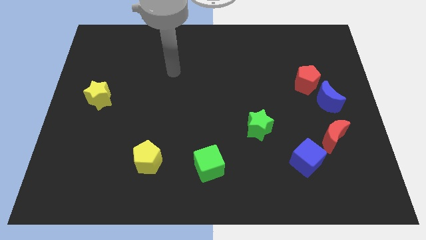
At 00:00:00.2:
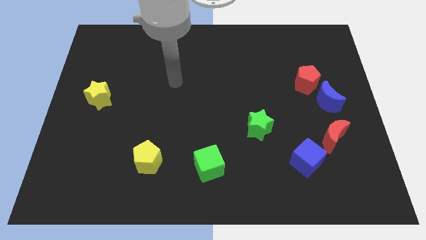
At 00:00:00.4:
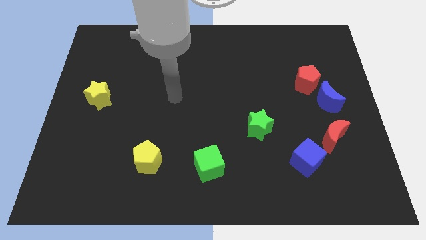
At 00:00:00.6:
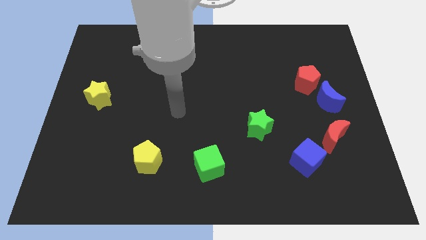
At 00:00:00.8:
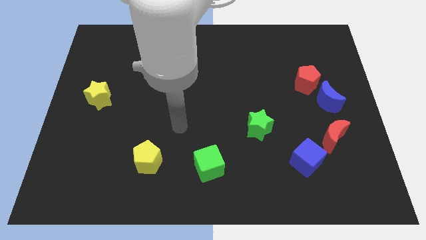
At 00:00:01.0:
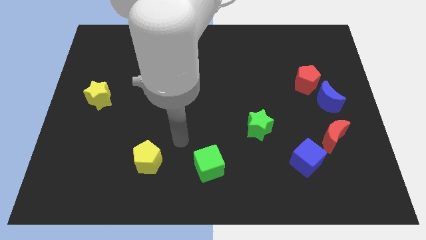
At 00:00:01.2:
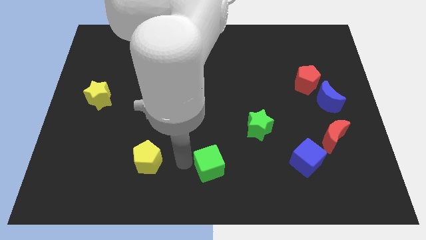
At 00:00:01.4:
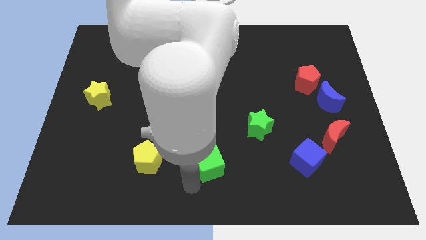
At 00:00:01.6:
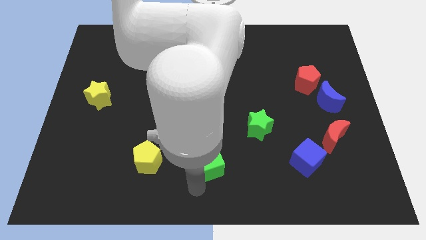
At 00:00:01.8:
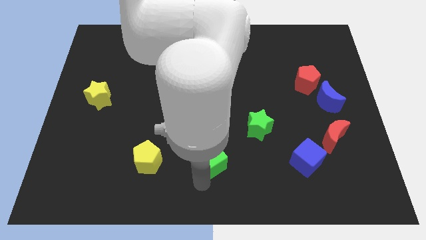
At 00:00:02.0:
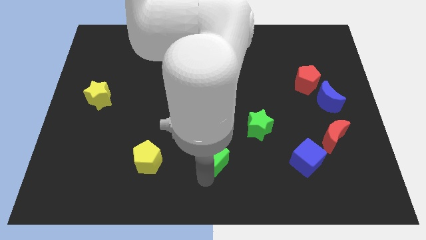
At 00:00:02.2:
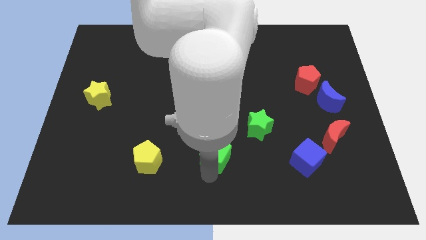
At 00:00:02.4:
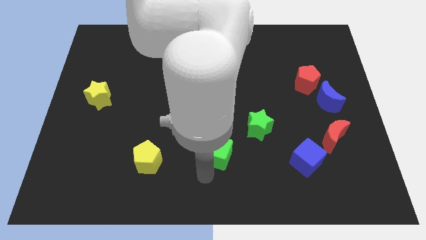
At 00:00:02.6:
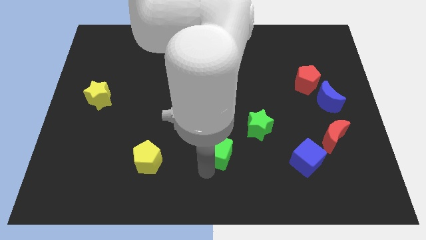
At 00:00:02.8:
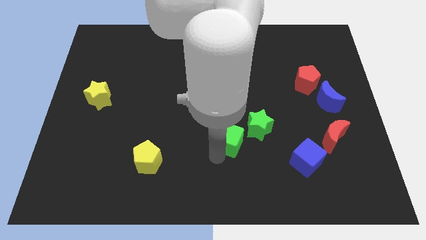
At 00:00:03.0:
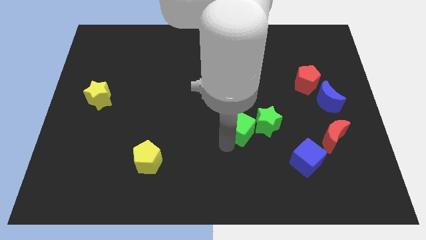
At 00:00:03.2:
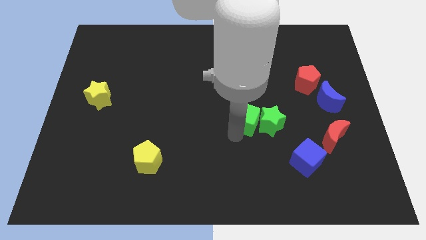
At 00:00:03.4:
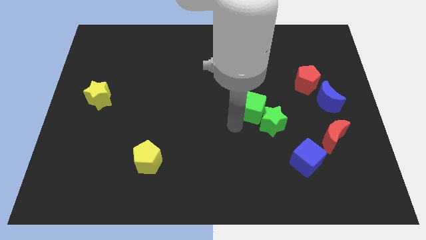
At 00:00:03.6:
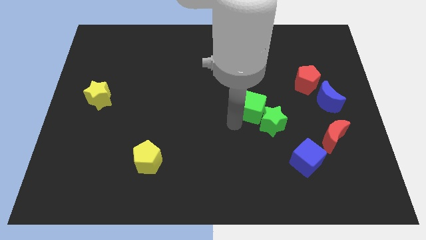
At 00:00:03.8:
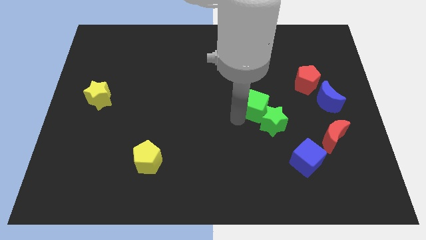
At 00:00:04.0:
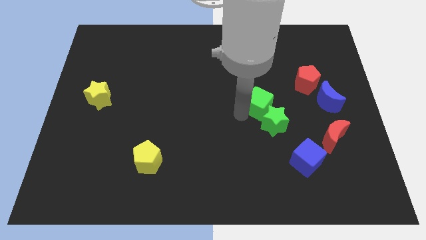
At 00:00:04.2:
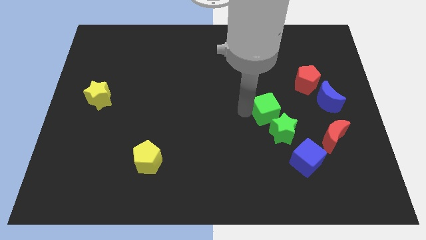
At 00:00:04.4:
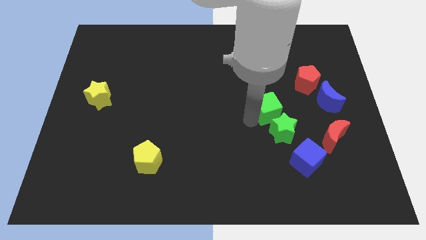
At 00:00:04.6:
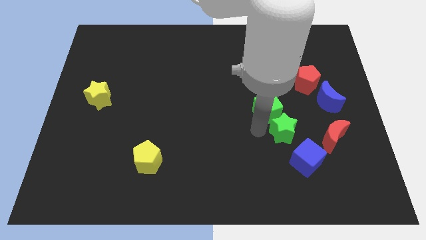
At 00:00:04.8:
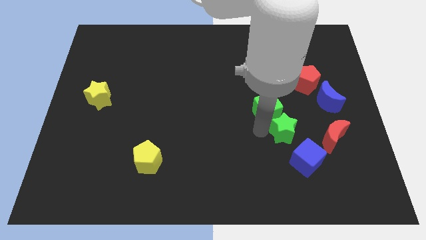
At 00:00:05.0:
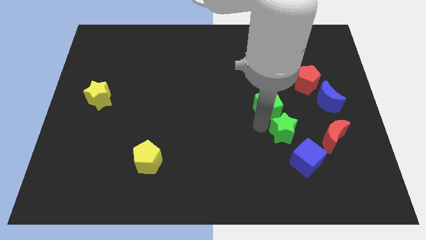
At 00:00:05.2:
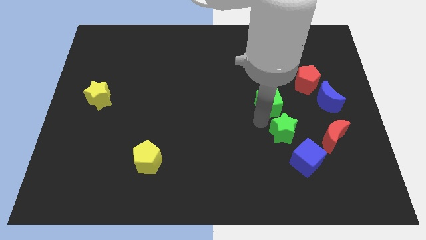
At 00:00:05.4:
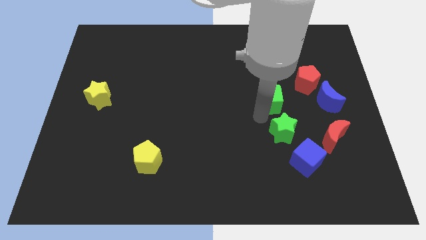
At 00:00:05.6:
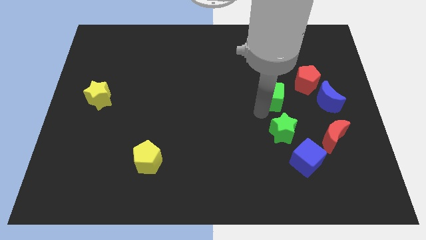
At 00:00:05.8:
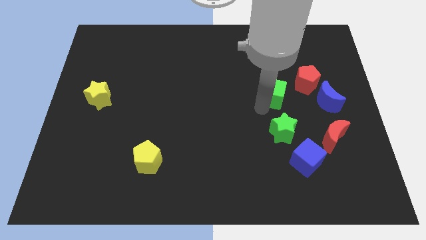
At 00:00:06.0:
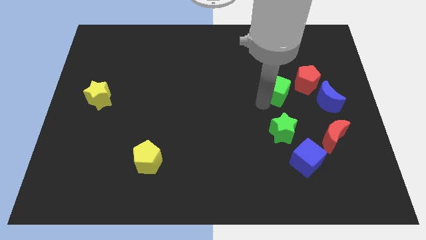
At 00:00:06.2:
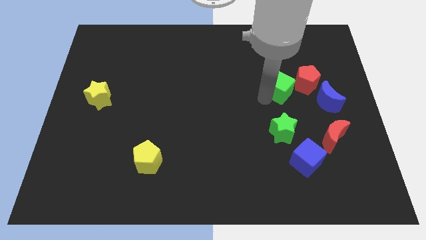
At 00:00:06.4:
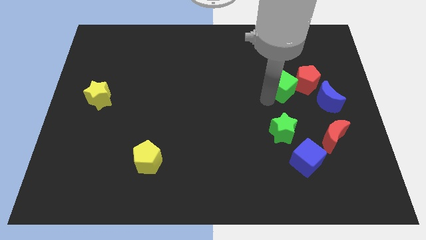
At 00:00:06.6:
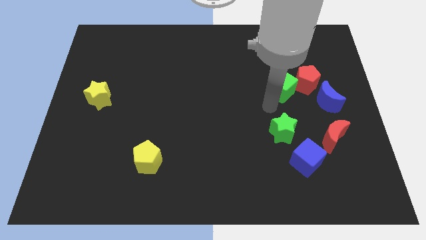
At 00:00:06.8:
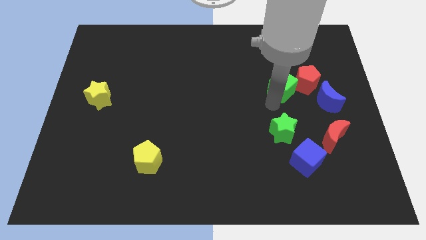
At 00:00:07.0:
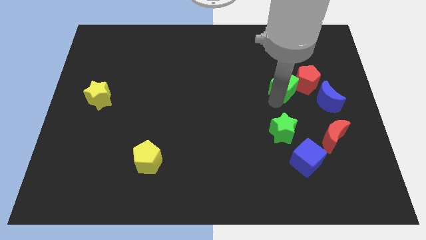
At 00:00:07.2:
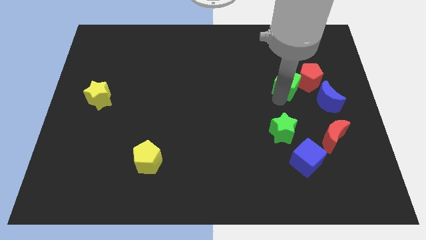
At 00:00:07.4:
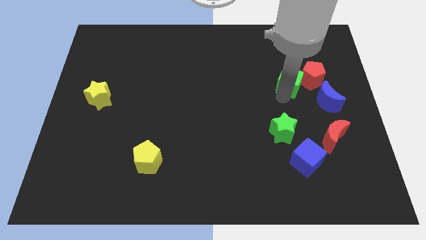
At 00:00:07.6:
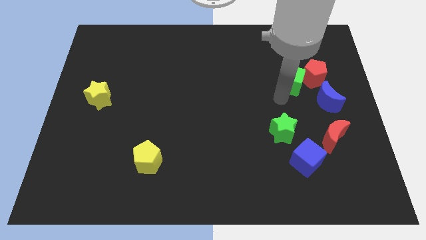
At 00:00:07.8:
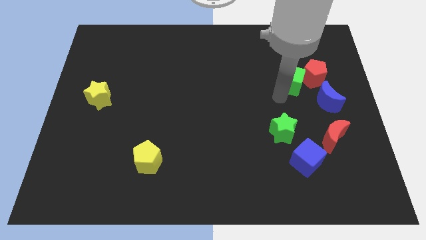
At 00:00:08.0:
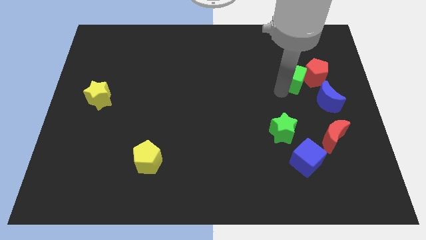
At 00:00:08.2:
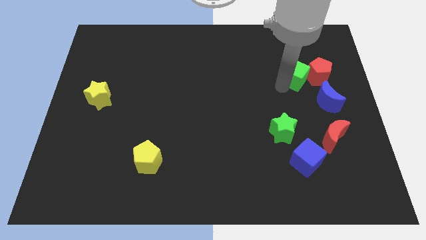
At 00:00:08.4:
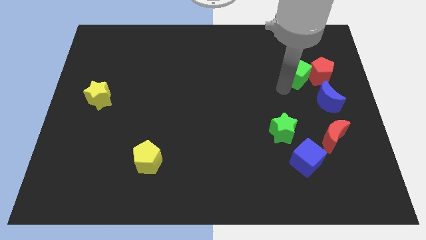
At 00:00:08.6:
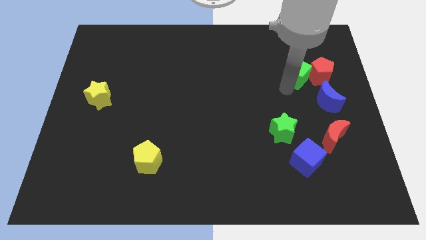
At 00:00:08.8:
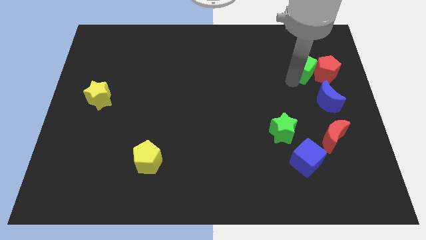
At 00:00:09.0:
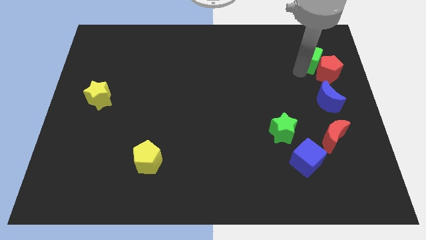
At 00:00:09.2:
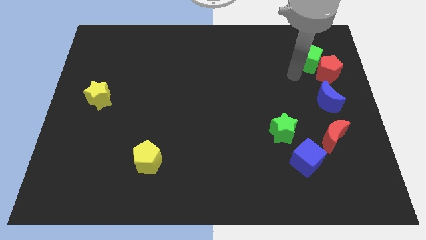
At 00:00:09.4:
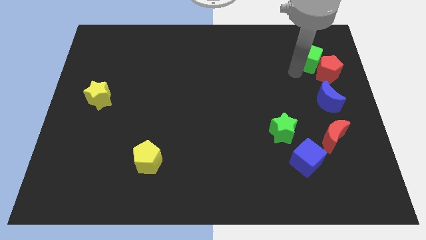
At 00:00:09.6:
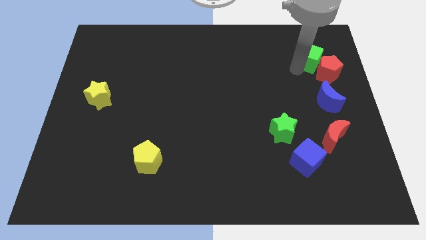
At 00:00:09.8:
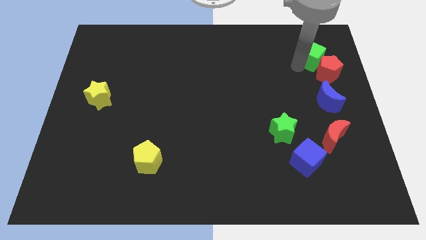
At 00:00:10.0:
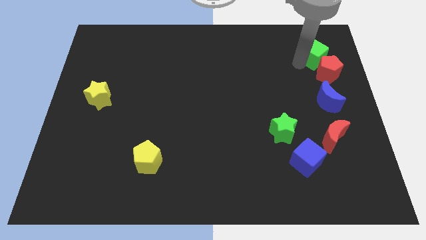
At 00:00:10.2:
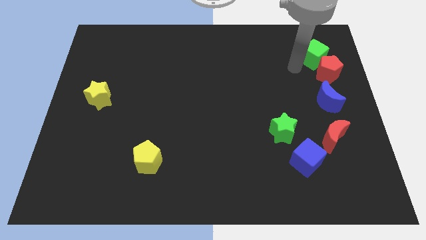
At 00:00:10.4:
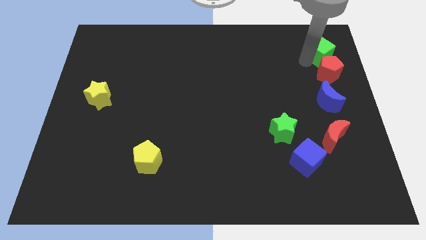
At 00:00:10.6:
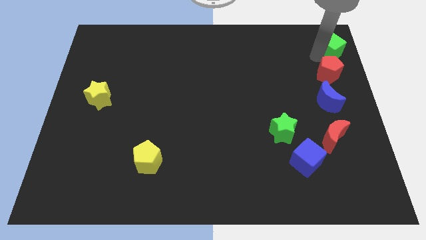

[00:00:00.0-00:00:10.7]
put the green cube to the top right

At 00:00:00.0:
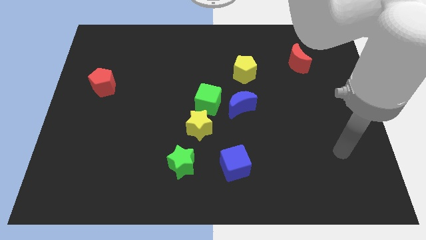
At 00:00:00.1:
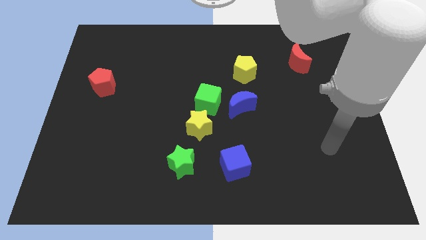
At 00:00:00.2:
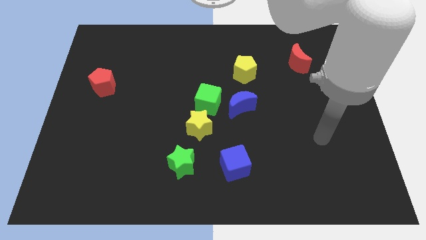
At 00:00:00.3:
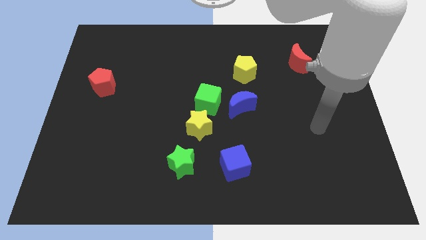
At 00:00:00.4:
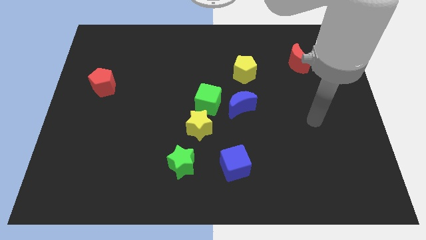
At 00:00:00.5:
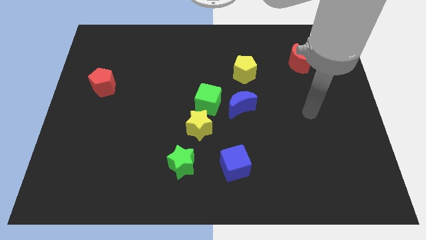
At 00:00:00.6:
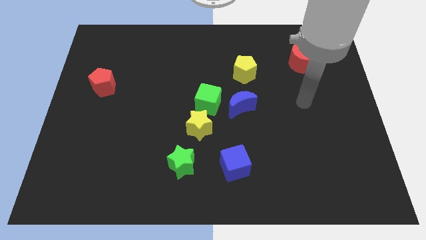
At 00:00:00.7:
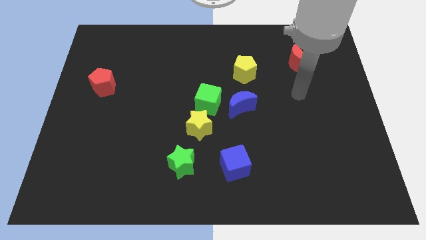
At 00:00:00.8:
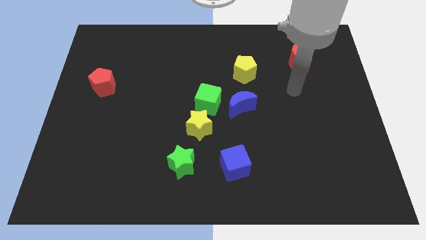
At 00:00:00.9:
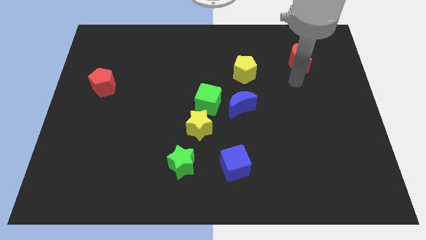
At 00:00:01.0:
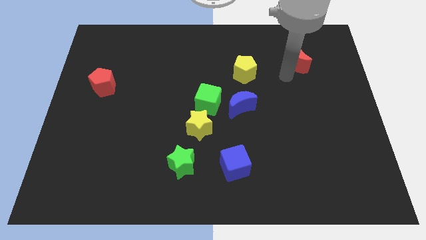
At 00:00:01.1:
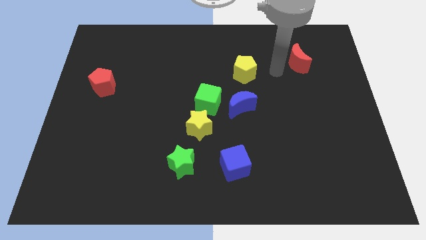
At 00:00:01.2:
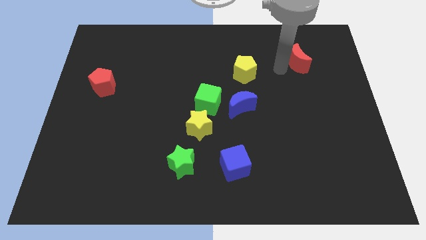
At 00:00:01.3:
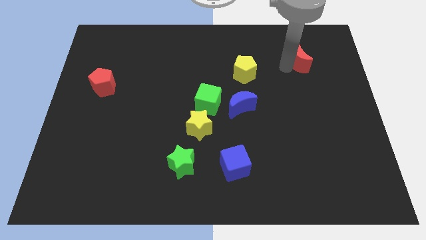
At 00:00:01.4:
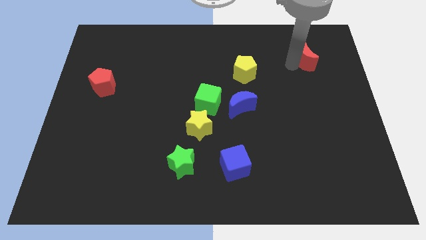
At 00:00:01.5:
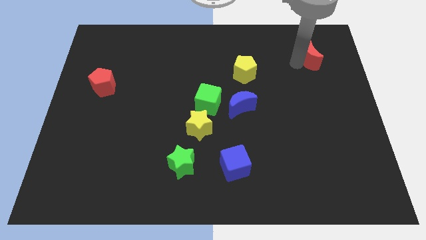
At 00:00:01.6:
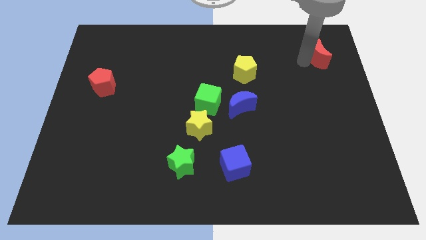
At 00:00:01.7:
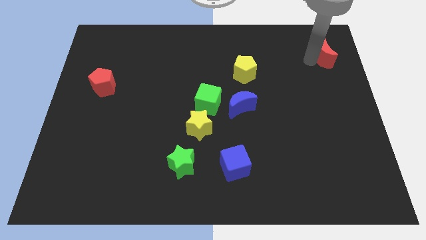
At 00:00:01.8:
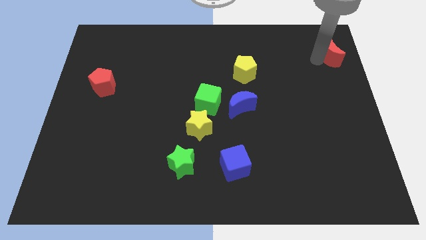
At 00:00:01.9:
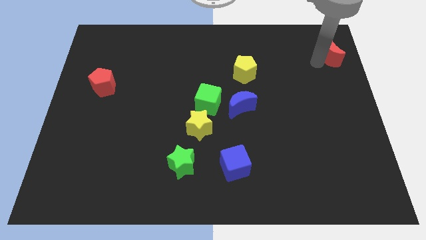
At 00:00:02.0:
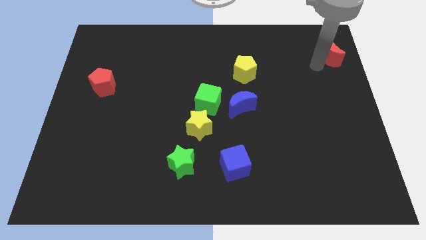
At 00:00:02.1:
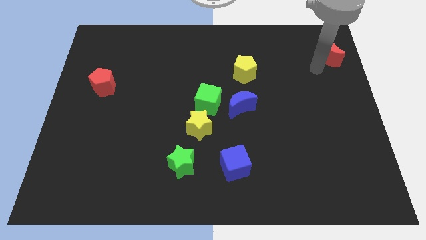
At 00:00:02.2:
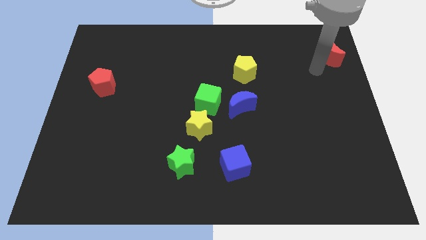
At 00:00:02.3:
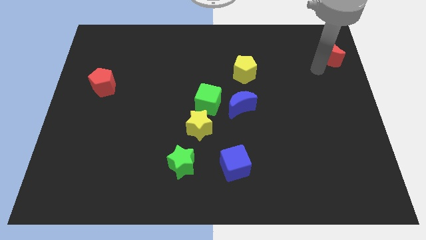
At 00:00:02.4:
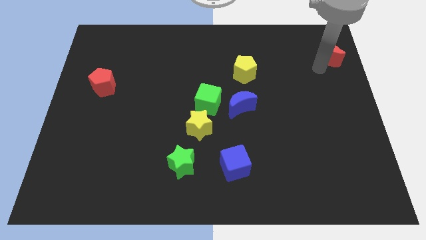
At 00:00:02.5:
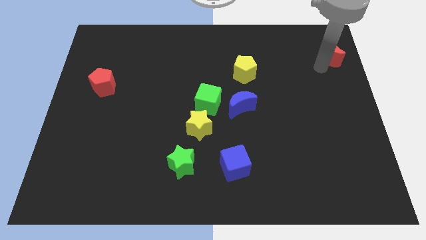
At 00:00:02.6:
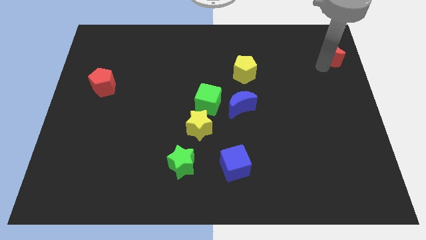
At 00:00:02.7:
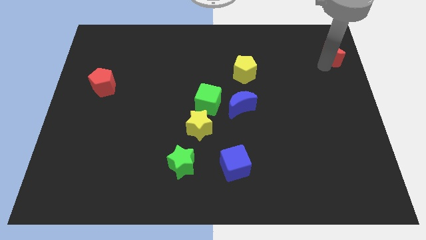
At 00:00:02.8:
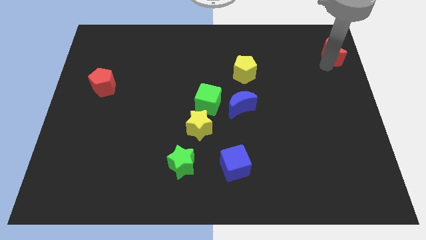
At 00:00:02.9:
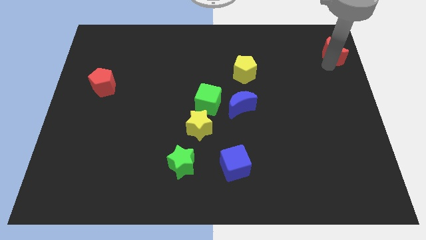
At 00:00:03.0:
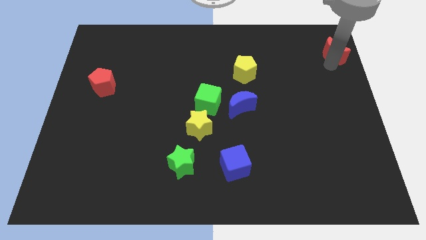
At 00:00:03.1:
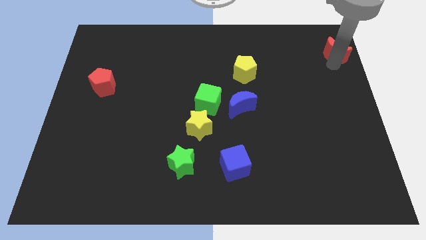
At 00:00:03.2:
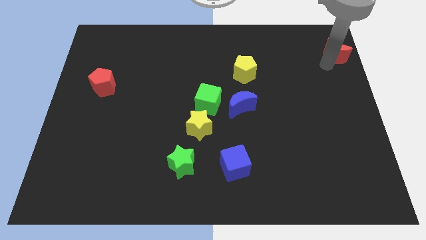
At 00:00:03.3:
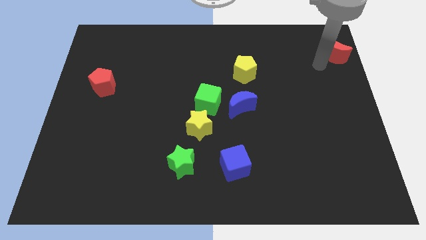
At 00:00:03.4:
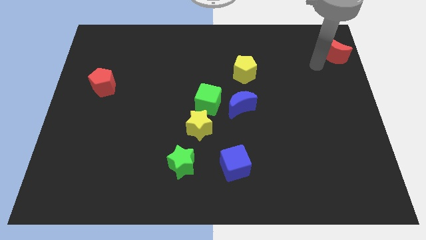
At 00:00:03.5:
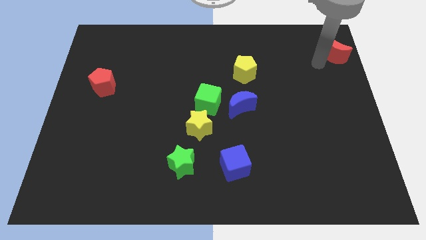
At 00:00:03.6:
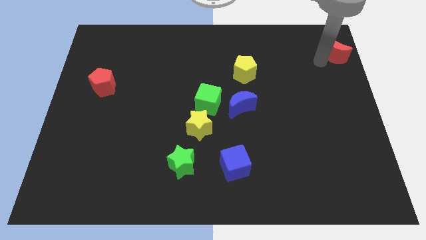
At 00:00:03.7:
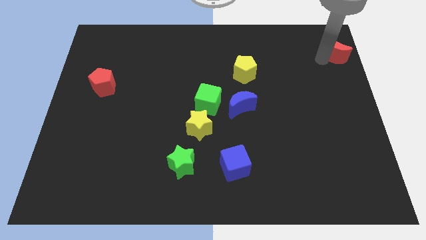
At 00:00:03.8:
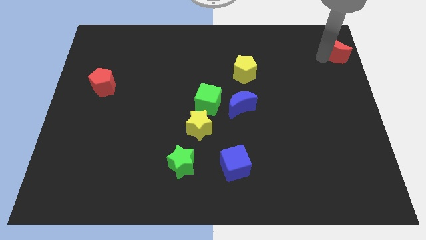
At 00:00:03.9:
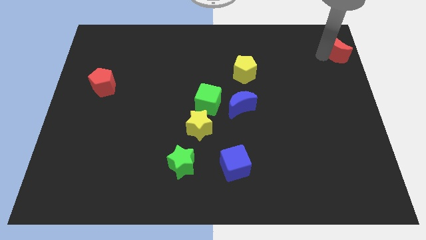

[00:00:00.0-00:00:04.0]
move the red moon to the top right
